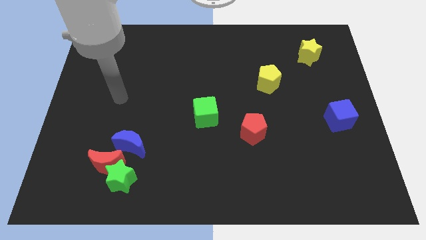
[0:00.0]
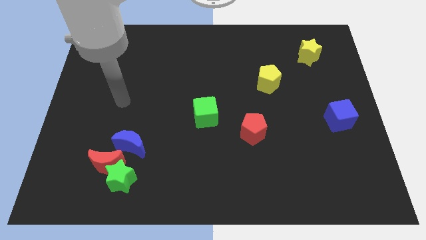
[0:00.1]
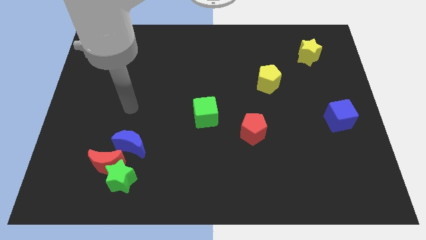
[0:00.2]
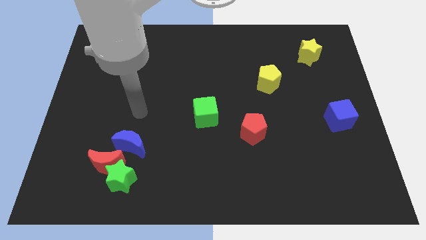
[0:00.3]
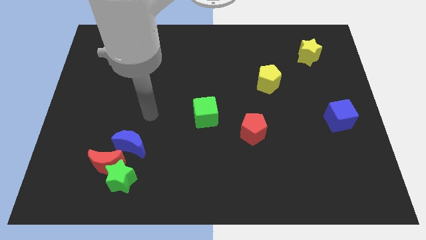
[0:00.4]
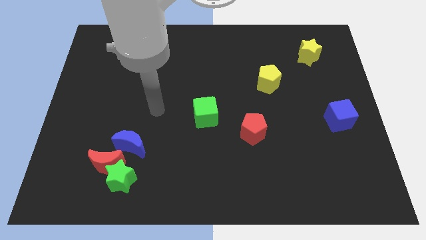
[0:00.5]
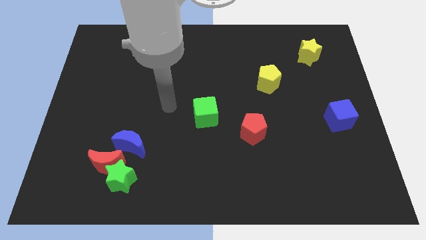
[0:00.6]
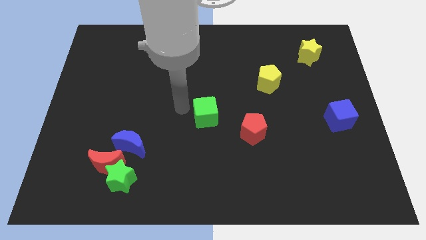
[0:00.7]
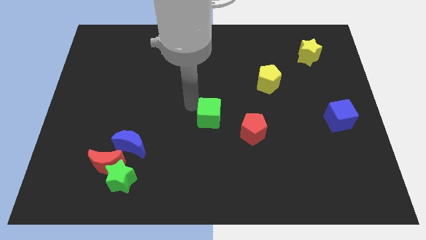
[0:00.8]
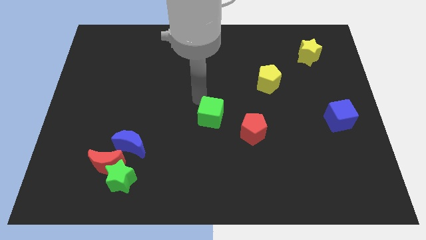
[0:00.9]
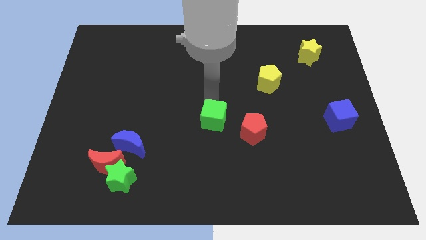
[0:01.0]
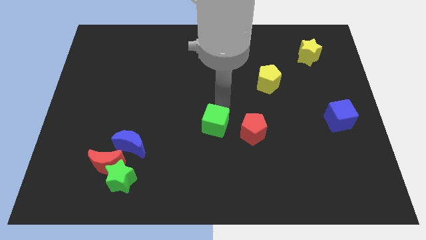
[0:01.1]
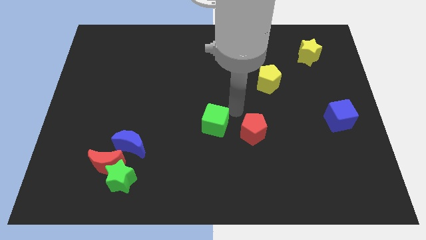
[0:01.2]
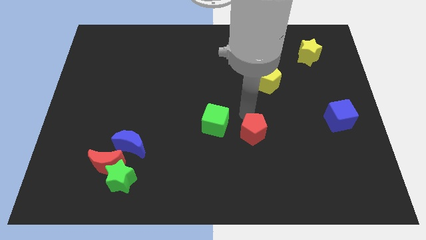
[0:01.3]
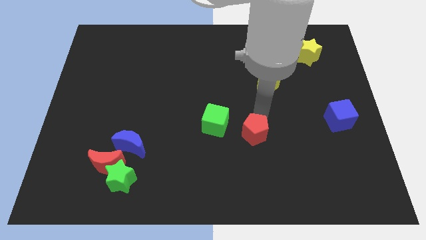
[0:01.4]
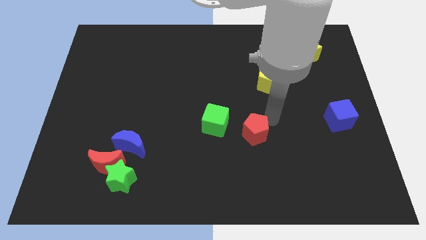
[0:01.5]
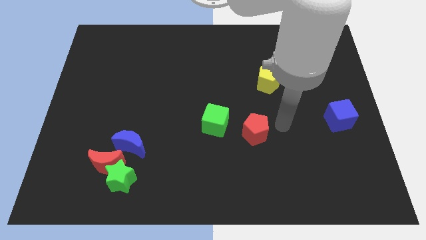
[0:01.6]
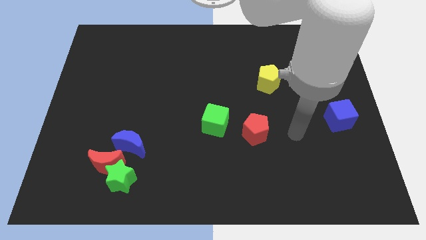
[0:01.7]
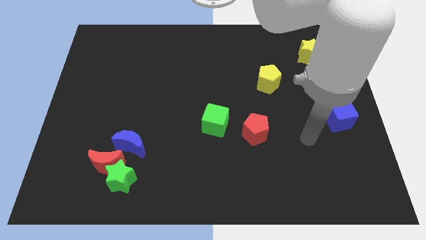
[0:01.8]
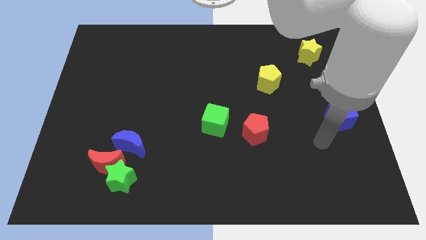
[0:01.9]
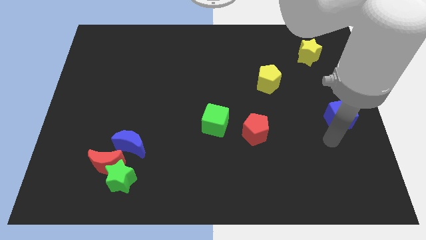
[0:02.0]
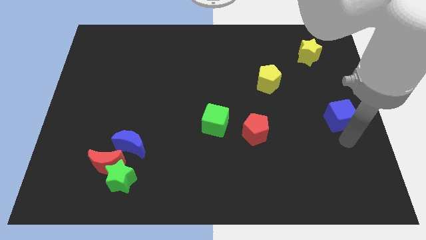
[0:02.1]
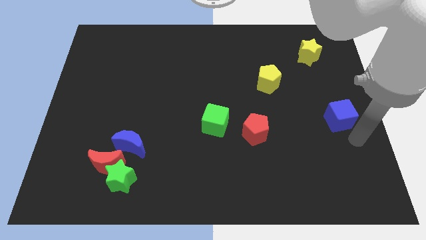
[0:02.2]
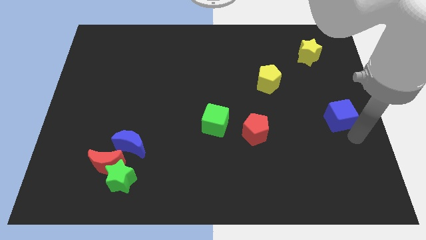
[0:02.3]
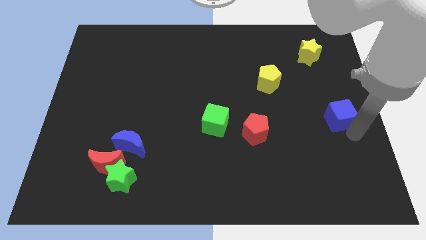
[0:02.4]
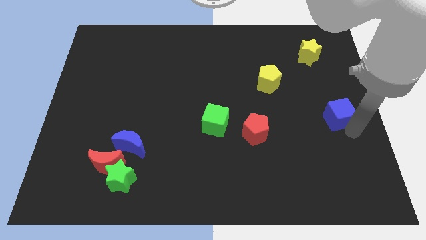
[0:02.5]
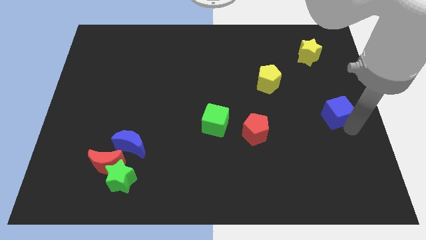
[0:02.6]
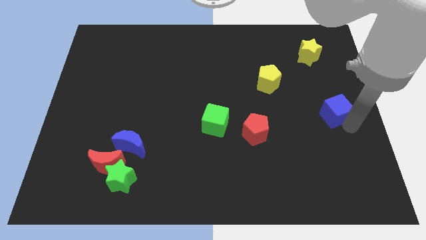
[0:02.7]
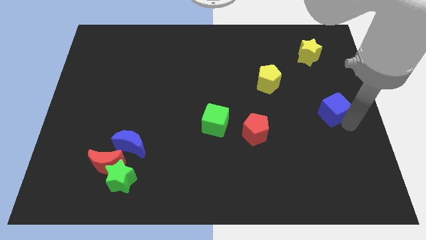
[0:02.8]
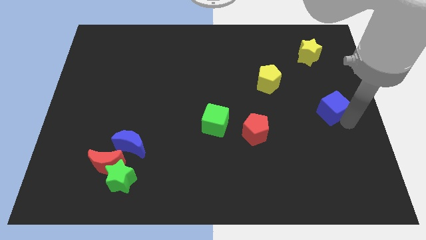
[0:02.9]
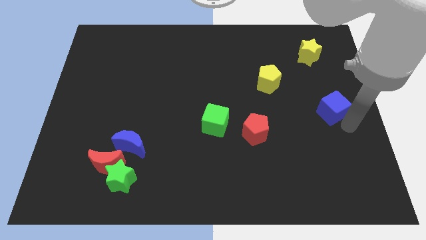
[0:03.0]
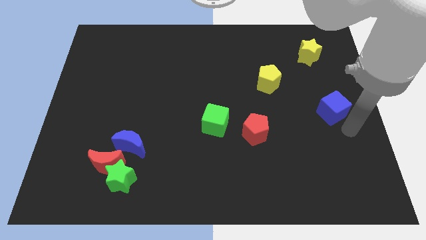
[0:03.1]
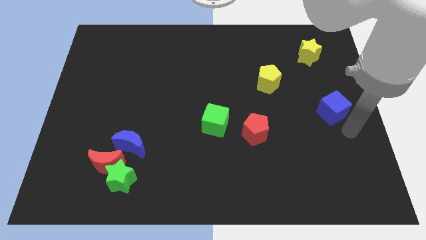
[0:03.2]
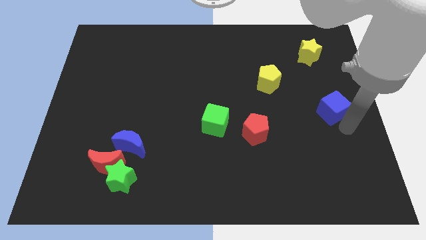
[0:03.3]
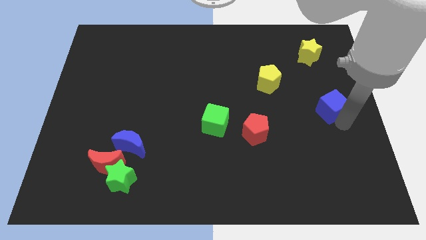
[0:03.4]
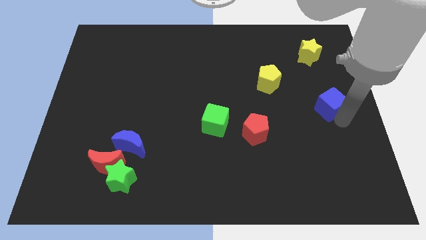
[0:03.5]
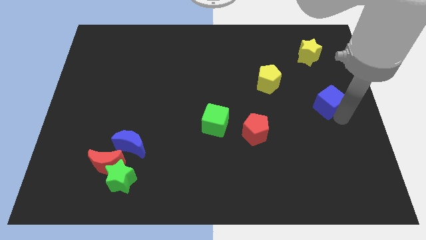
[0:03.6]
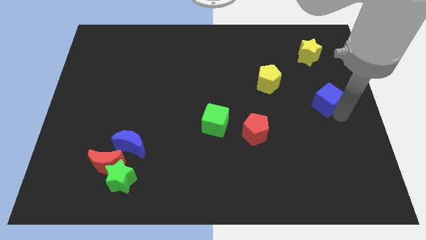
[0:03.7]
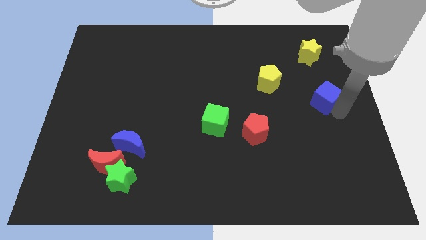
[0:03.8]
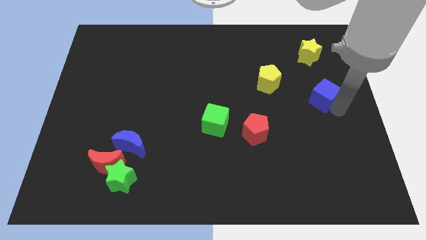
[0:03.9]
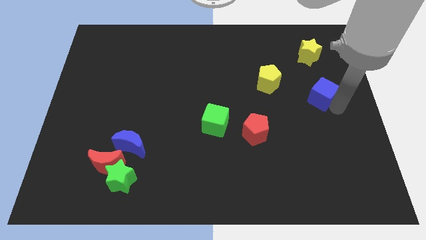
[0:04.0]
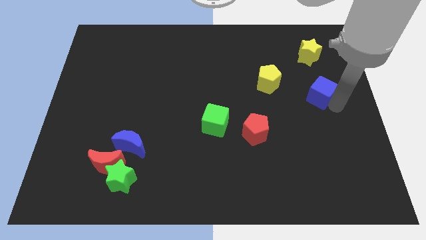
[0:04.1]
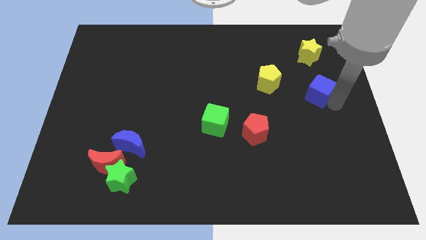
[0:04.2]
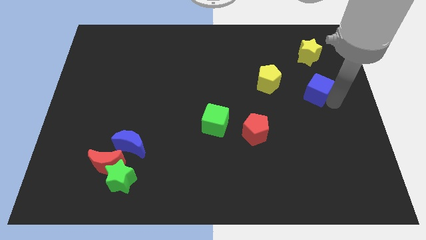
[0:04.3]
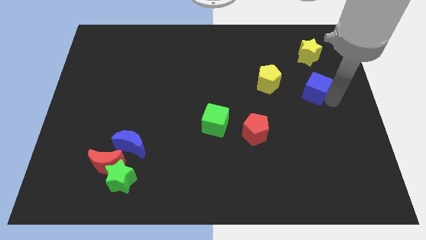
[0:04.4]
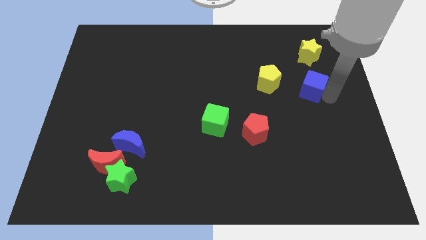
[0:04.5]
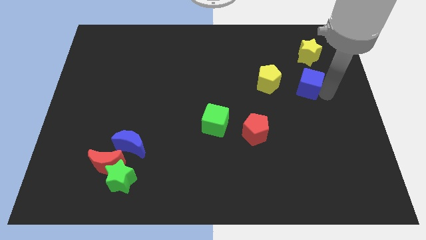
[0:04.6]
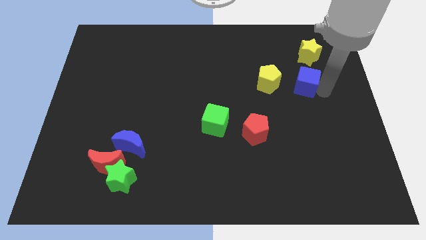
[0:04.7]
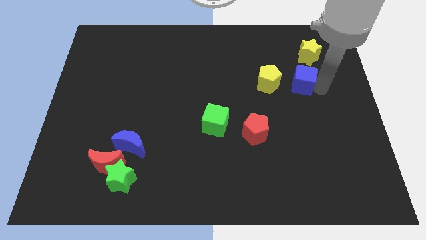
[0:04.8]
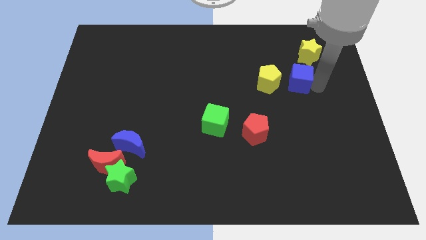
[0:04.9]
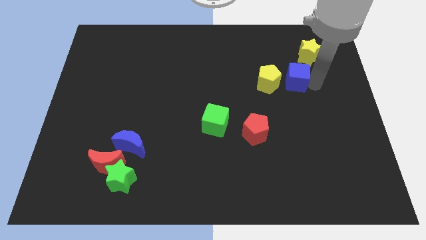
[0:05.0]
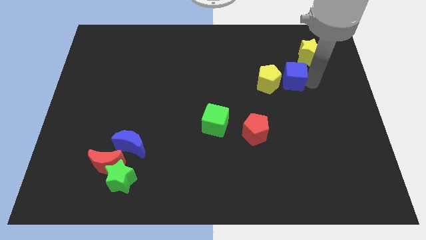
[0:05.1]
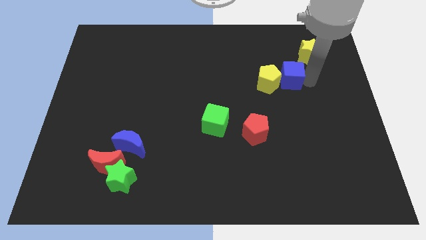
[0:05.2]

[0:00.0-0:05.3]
slide the blue cube next to the yellow pentagon

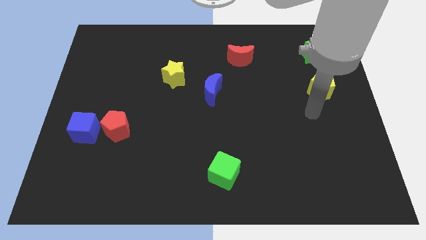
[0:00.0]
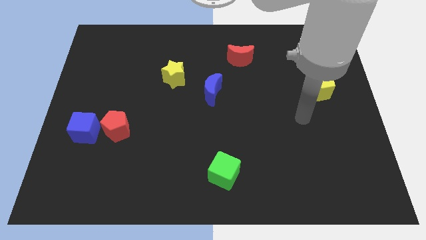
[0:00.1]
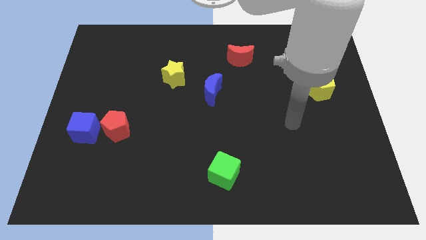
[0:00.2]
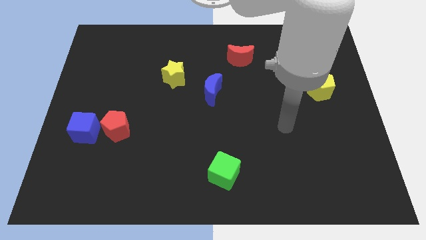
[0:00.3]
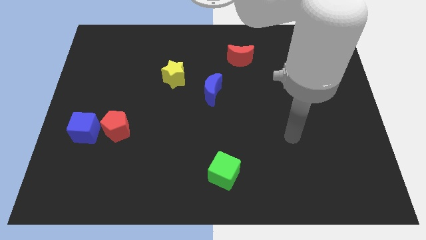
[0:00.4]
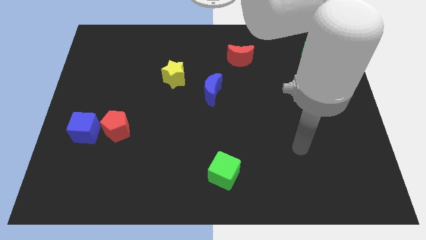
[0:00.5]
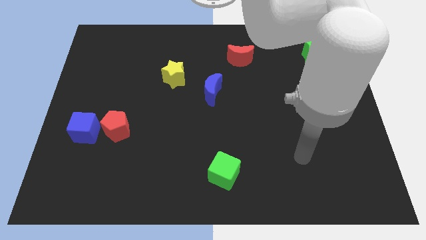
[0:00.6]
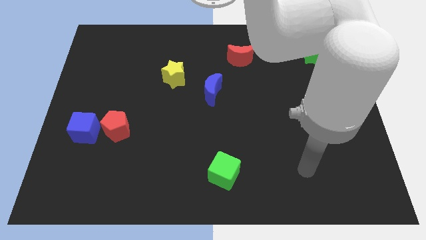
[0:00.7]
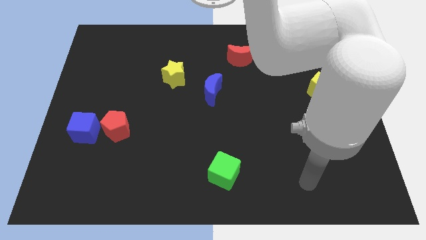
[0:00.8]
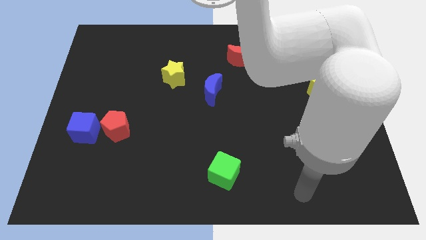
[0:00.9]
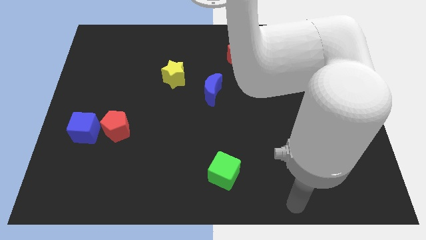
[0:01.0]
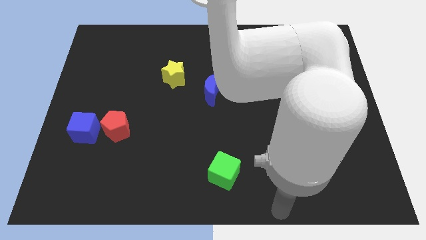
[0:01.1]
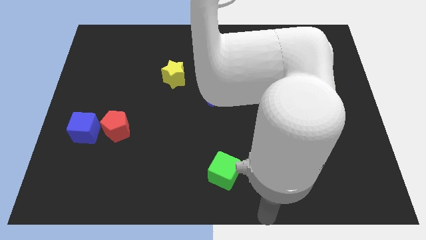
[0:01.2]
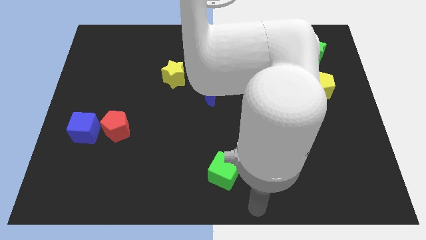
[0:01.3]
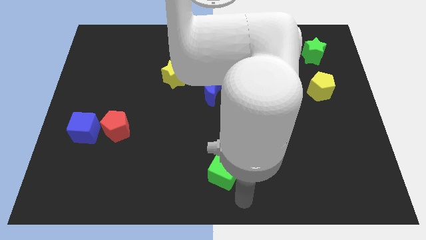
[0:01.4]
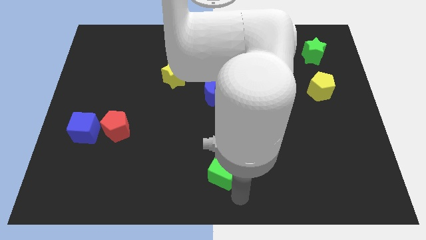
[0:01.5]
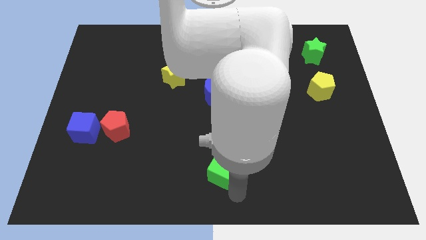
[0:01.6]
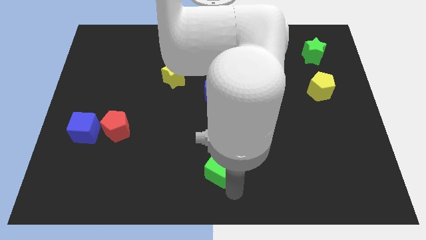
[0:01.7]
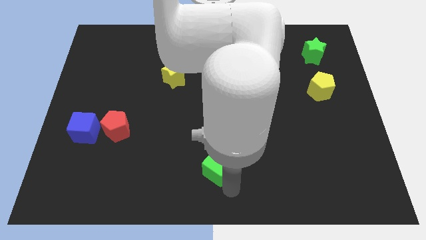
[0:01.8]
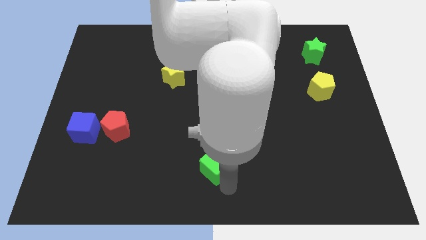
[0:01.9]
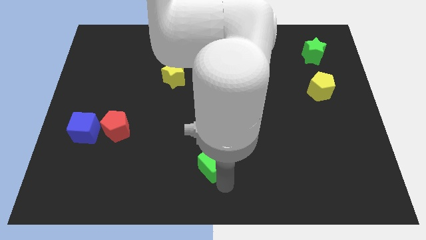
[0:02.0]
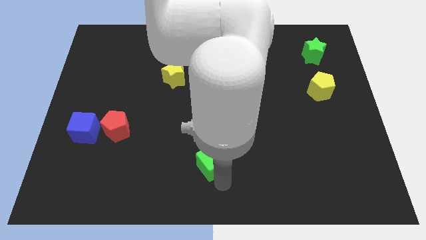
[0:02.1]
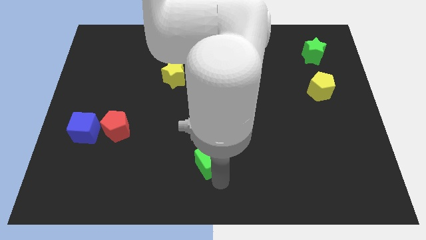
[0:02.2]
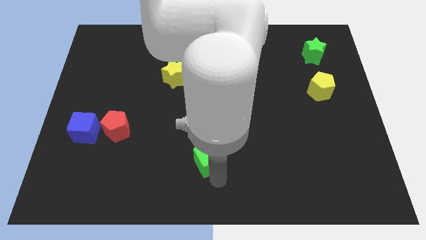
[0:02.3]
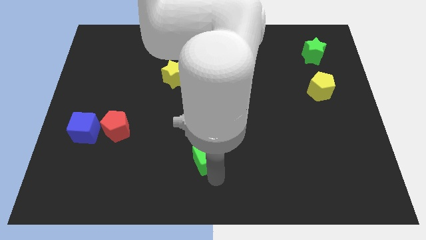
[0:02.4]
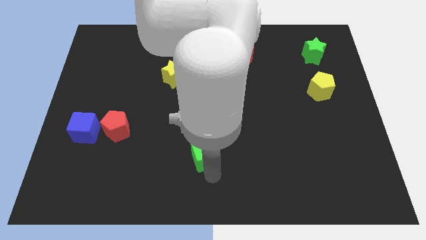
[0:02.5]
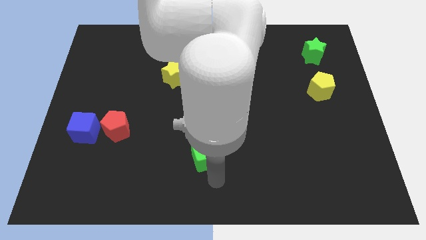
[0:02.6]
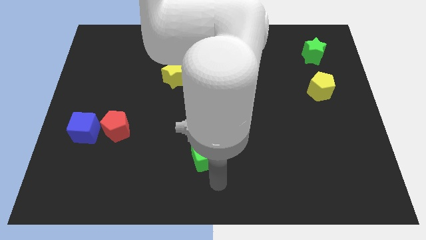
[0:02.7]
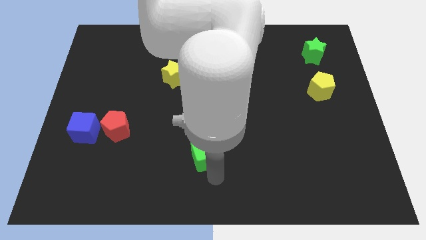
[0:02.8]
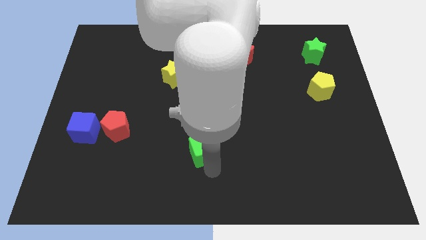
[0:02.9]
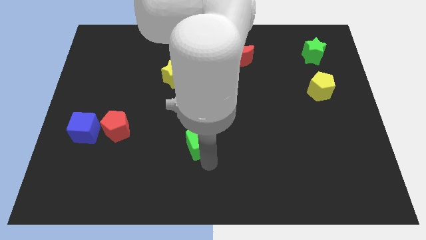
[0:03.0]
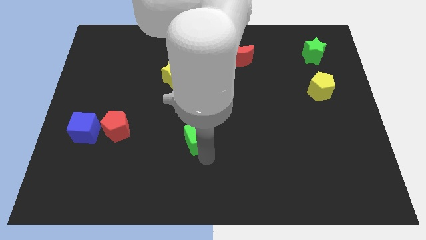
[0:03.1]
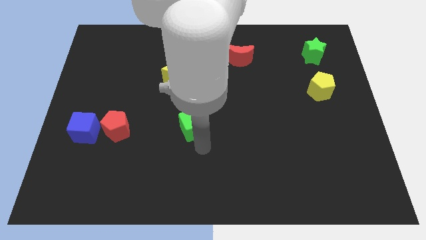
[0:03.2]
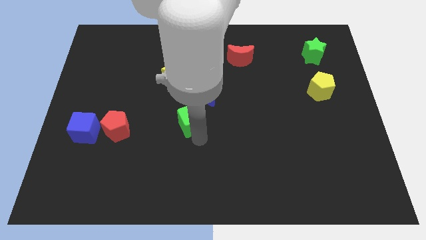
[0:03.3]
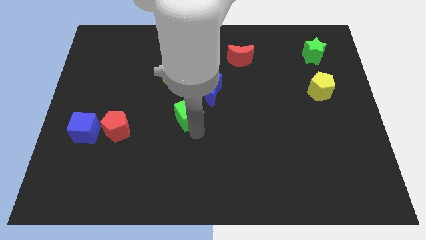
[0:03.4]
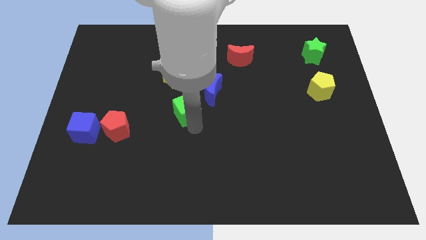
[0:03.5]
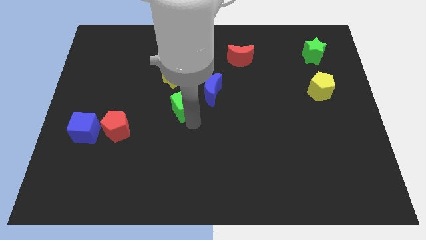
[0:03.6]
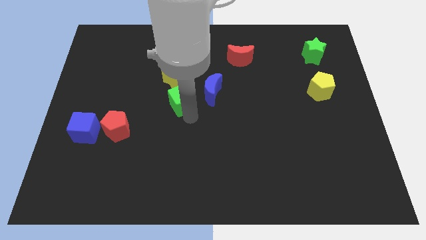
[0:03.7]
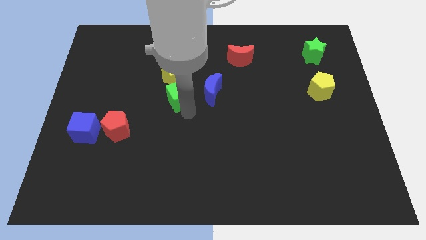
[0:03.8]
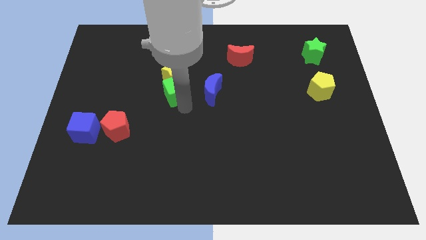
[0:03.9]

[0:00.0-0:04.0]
slide the green cube to the yellow star
